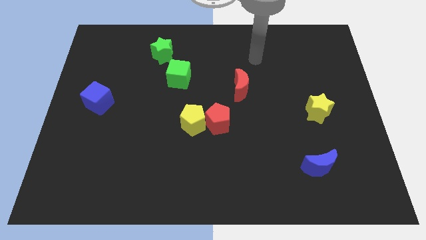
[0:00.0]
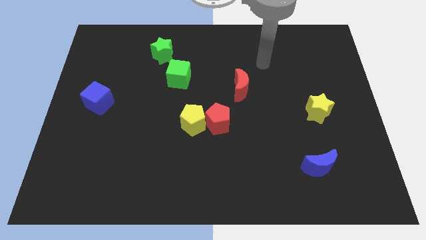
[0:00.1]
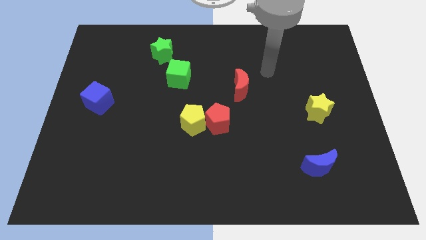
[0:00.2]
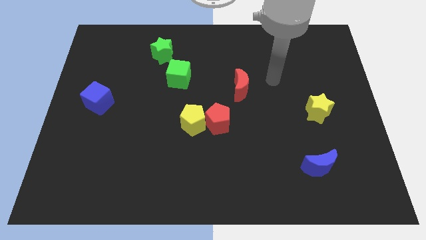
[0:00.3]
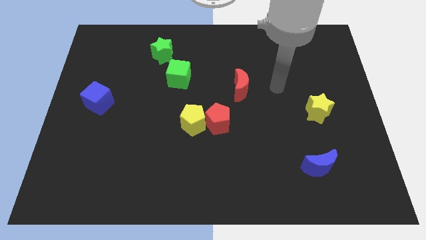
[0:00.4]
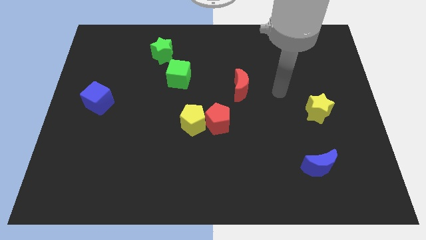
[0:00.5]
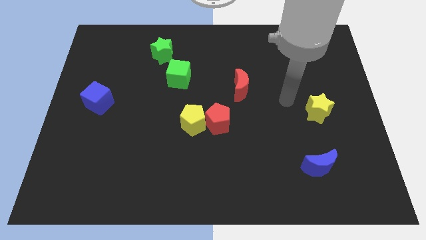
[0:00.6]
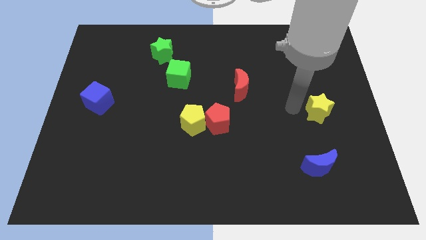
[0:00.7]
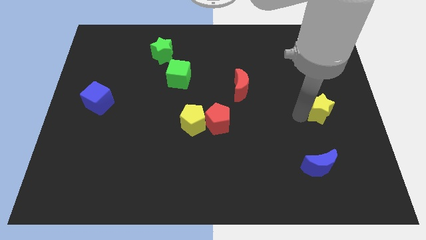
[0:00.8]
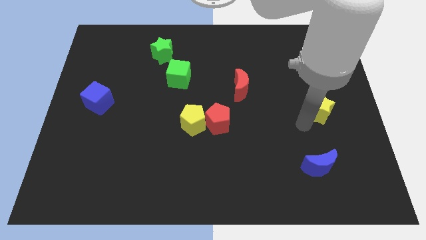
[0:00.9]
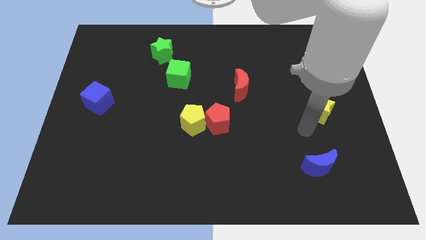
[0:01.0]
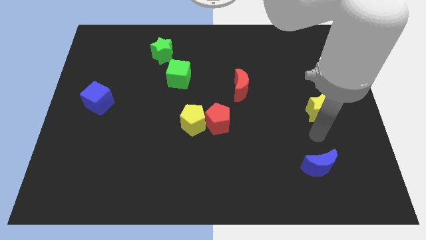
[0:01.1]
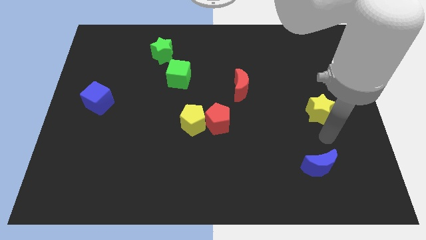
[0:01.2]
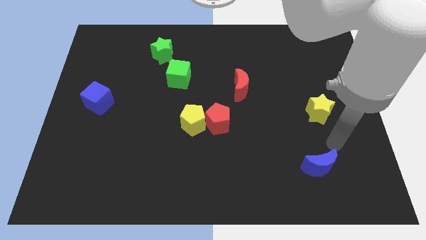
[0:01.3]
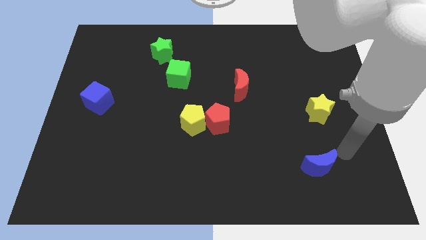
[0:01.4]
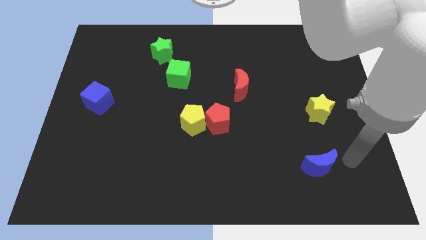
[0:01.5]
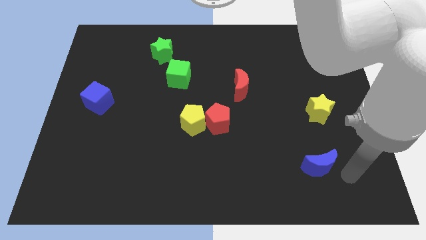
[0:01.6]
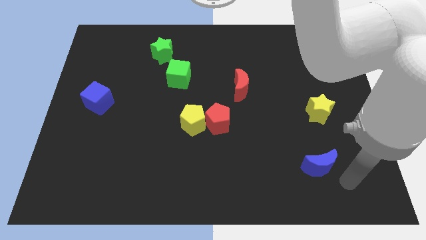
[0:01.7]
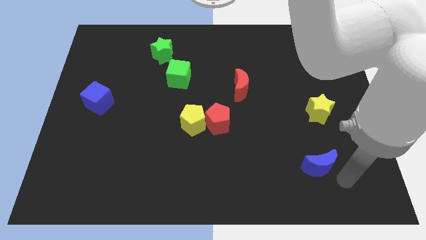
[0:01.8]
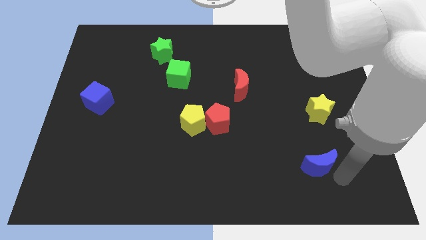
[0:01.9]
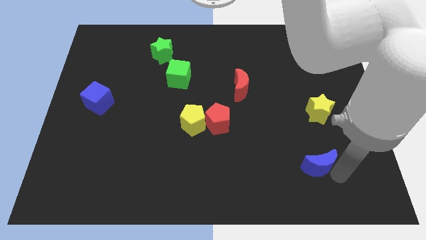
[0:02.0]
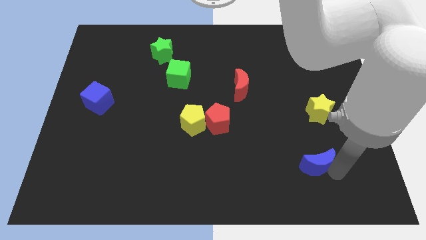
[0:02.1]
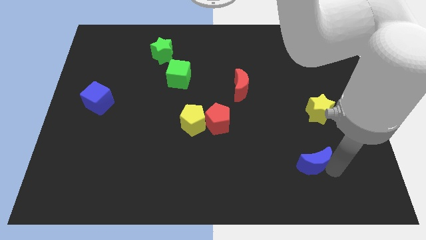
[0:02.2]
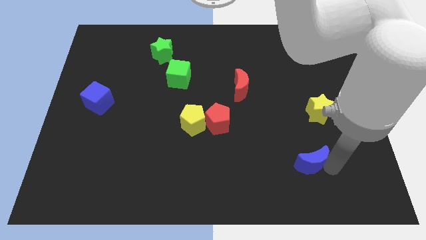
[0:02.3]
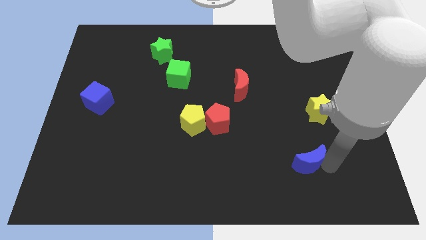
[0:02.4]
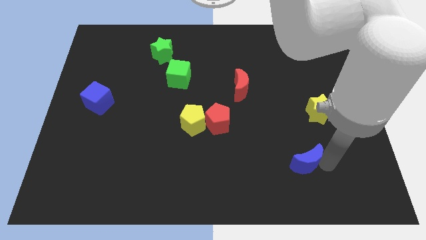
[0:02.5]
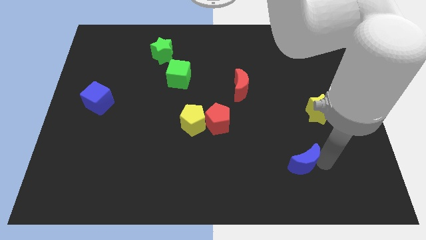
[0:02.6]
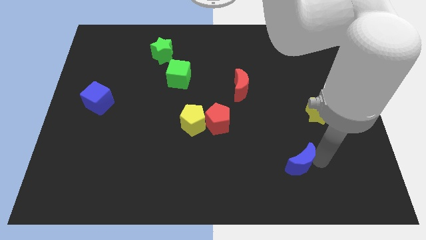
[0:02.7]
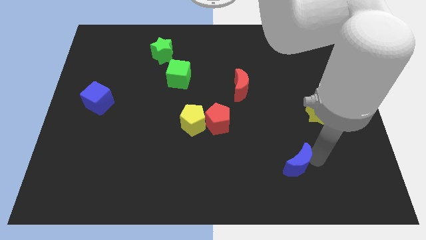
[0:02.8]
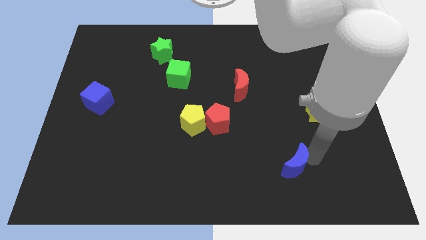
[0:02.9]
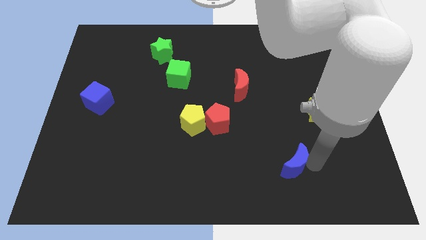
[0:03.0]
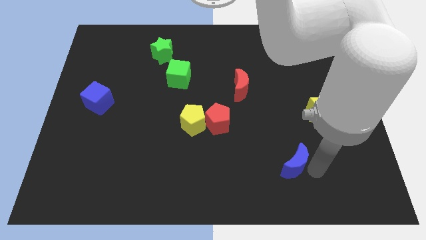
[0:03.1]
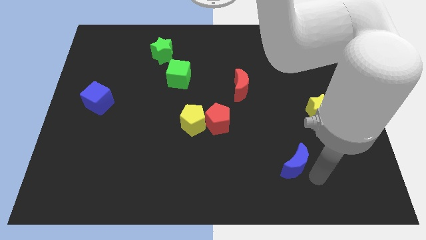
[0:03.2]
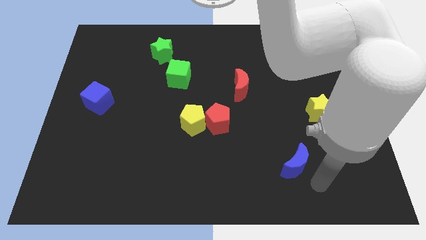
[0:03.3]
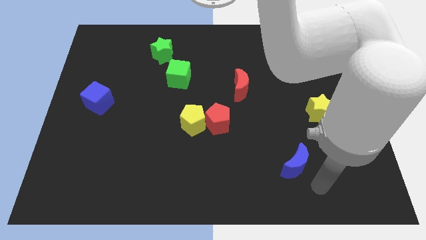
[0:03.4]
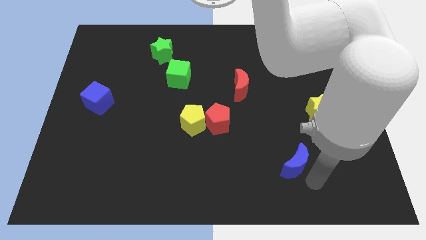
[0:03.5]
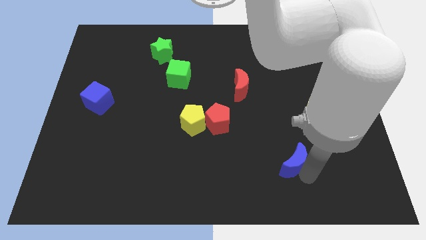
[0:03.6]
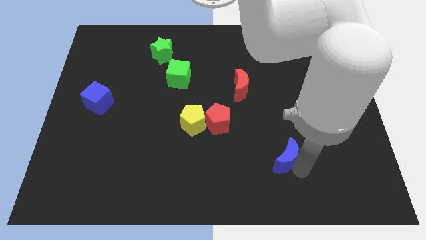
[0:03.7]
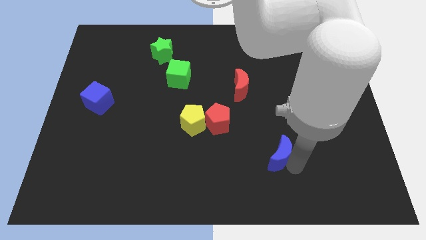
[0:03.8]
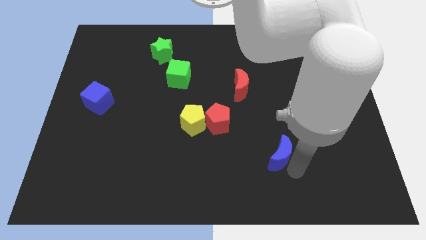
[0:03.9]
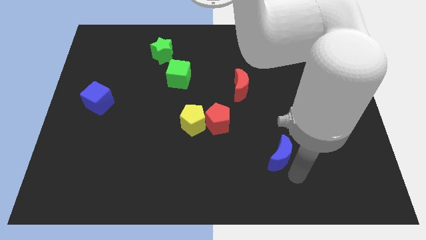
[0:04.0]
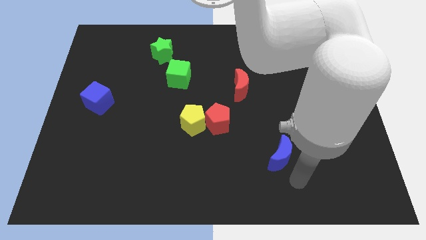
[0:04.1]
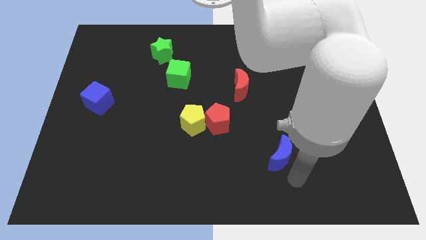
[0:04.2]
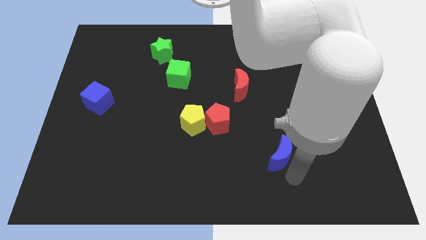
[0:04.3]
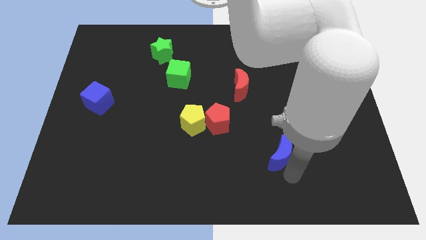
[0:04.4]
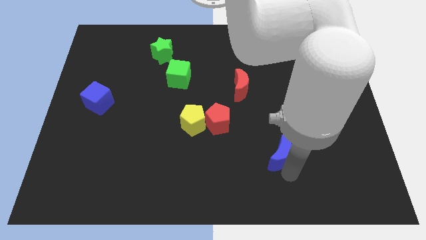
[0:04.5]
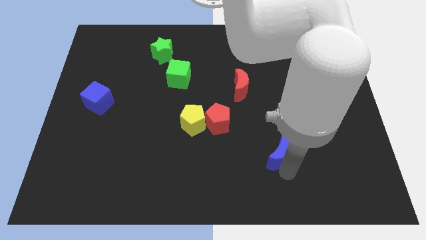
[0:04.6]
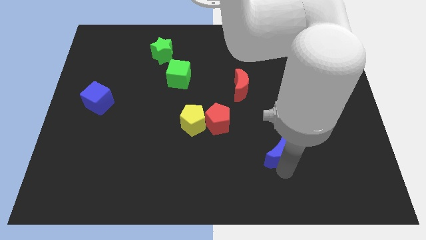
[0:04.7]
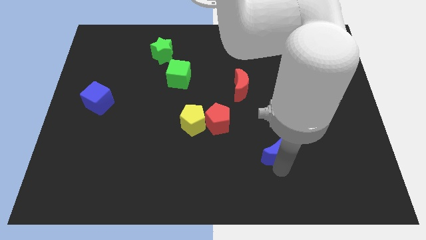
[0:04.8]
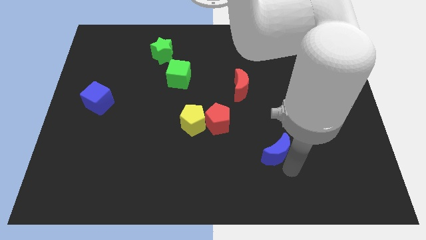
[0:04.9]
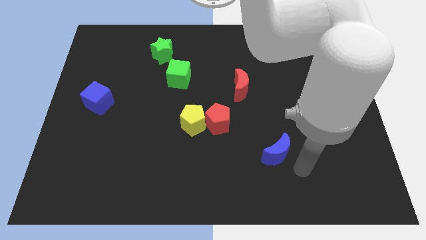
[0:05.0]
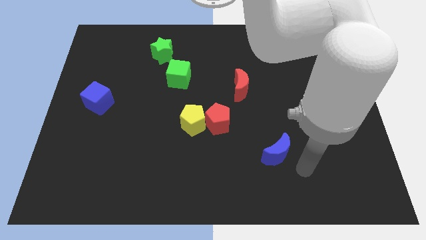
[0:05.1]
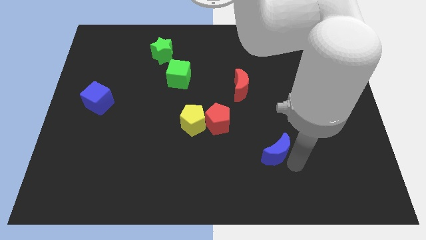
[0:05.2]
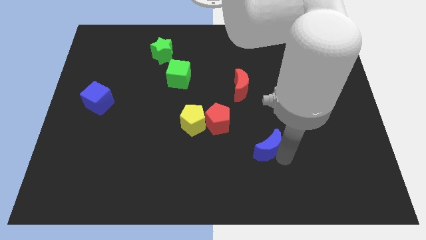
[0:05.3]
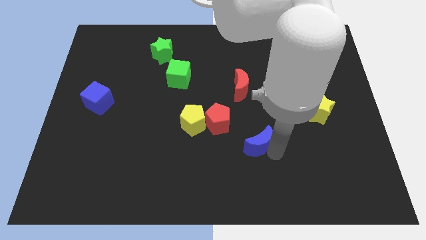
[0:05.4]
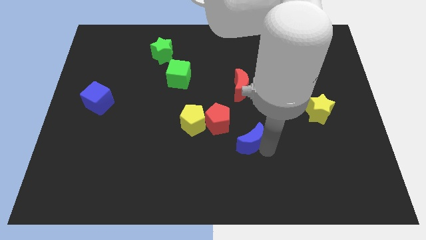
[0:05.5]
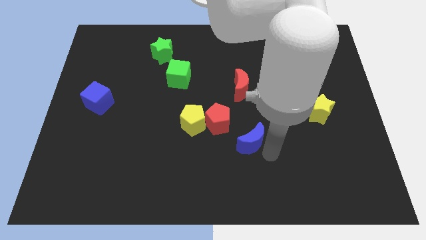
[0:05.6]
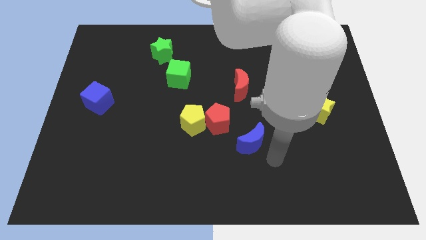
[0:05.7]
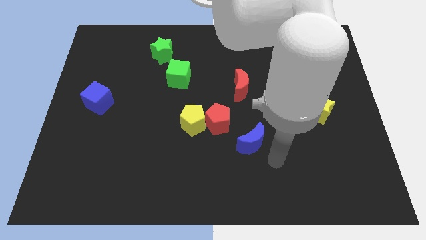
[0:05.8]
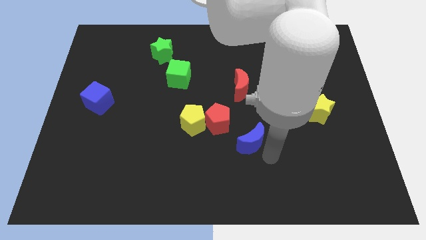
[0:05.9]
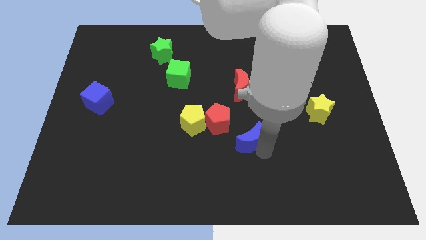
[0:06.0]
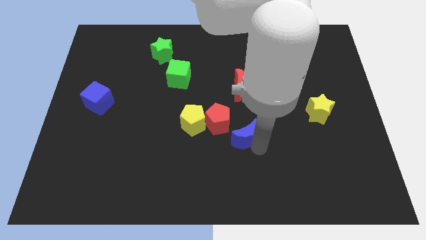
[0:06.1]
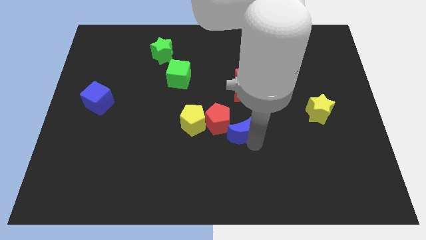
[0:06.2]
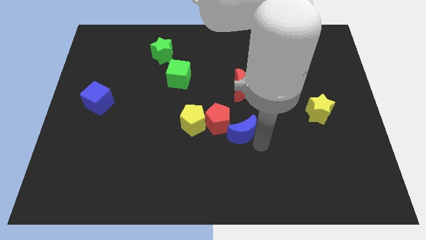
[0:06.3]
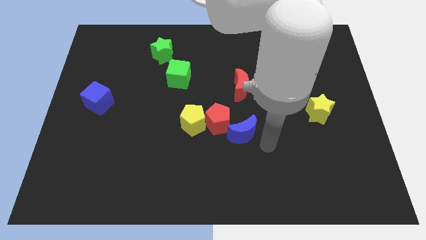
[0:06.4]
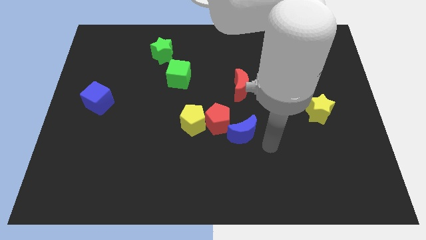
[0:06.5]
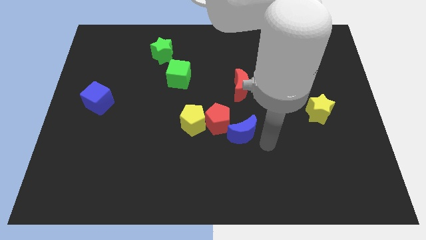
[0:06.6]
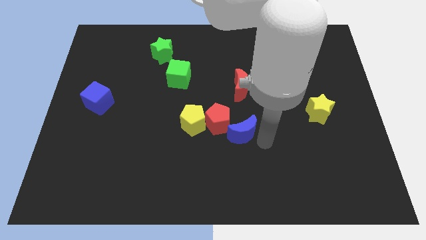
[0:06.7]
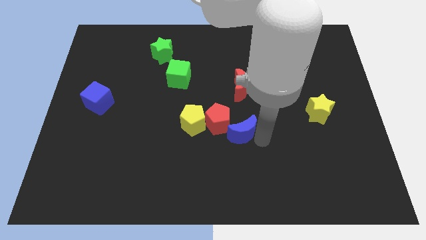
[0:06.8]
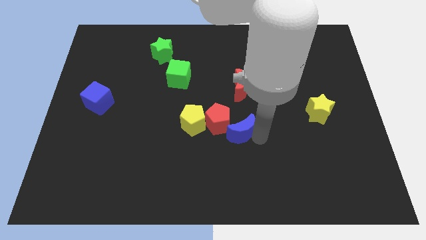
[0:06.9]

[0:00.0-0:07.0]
move the blue moon next to the red pentagon

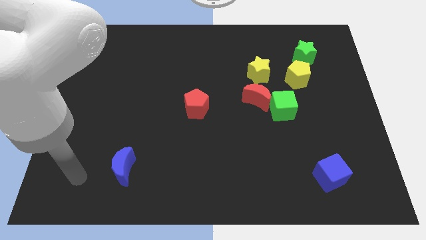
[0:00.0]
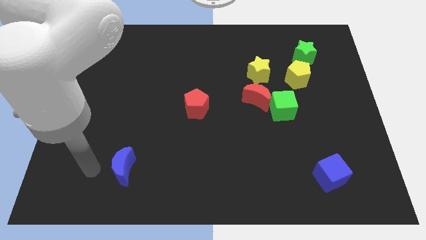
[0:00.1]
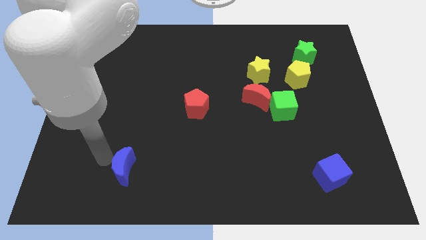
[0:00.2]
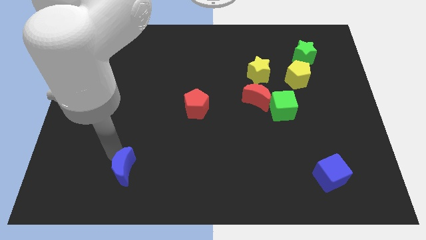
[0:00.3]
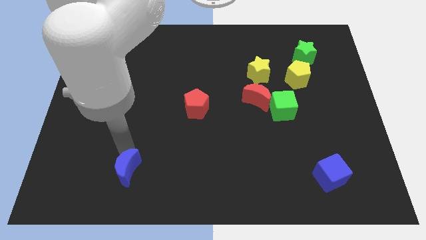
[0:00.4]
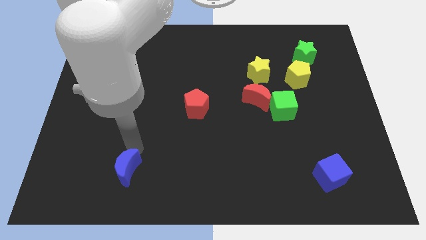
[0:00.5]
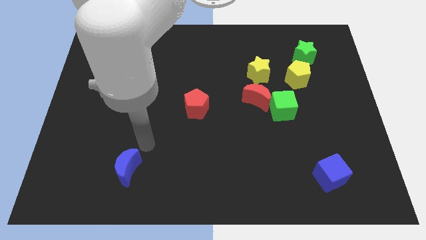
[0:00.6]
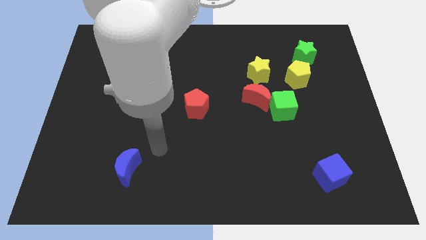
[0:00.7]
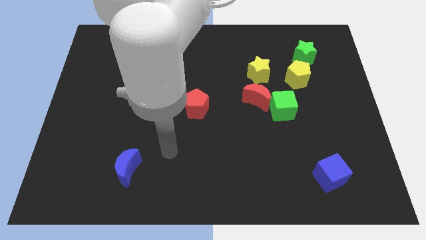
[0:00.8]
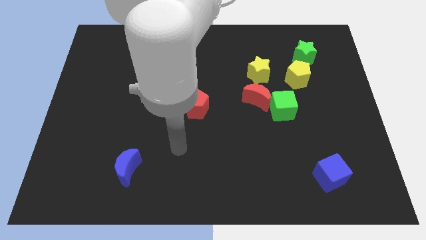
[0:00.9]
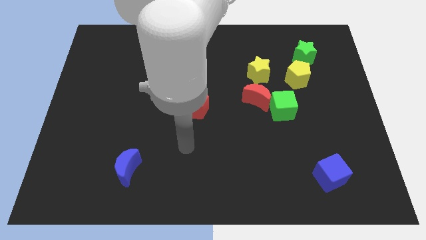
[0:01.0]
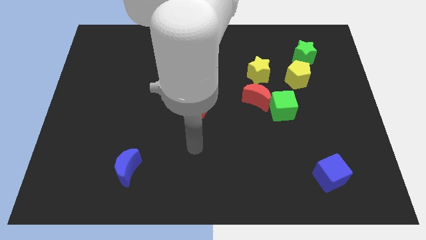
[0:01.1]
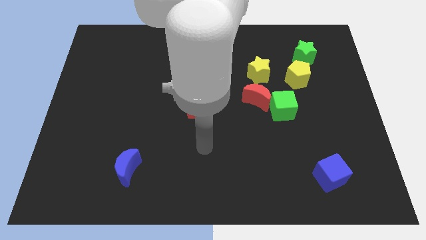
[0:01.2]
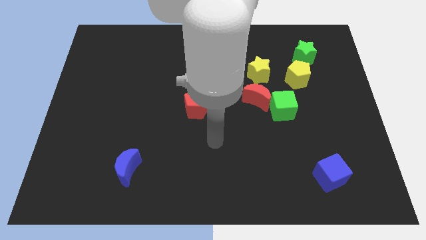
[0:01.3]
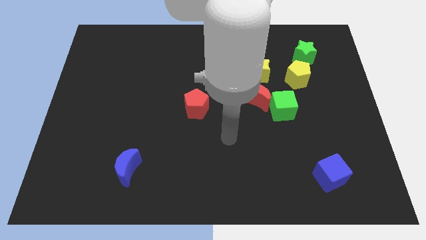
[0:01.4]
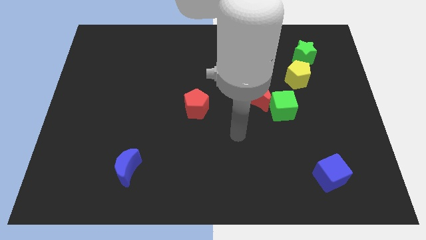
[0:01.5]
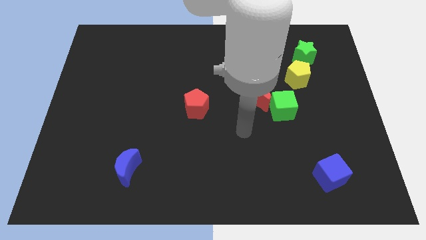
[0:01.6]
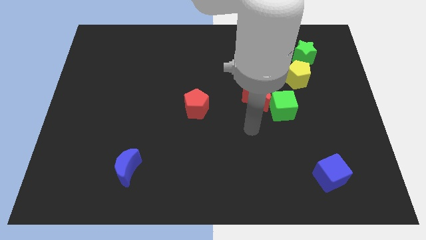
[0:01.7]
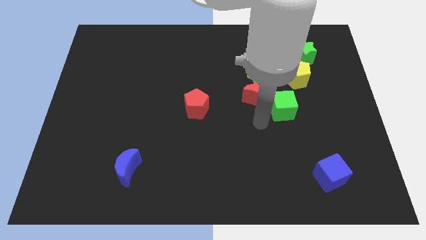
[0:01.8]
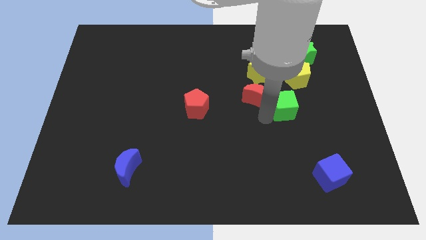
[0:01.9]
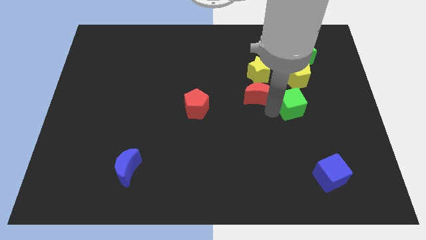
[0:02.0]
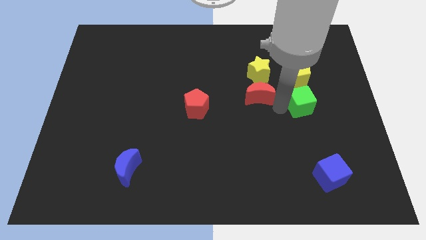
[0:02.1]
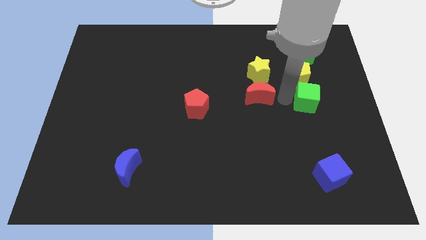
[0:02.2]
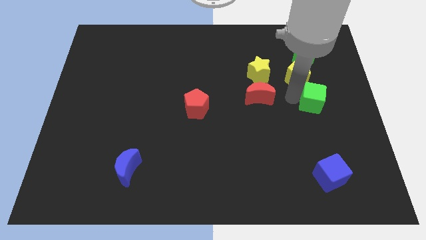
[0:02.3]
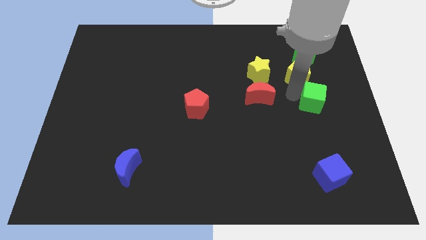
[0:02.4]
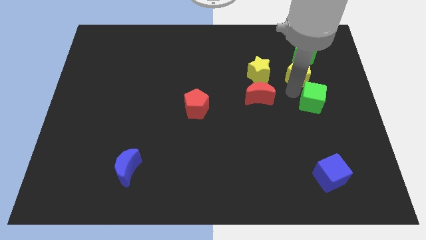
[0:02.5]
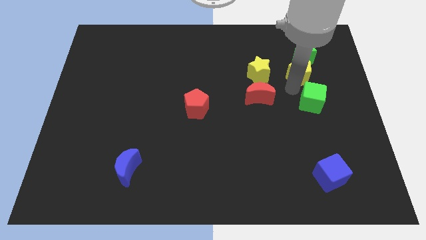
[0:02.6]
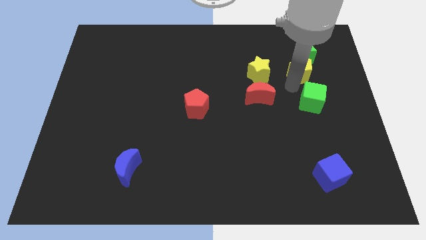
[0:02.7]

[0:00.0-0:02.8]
put the yellow pentagon close to the green star
